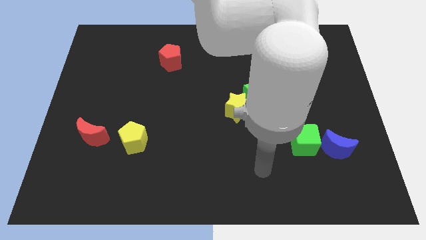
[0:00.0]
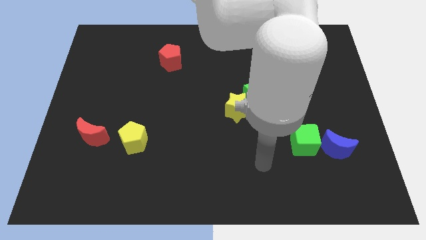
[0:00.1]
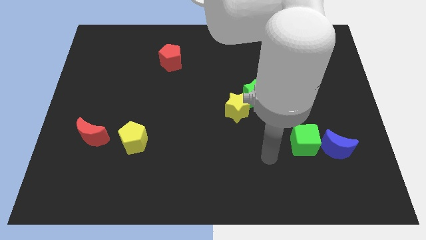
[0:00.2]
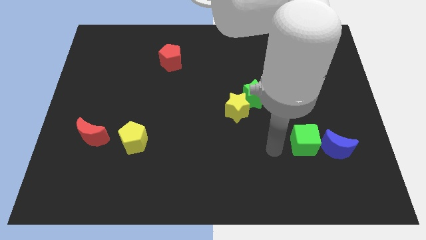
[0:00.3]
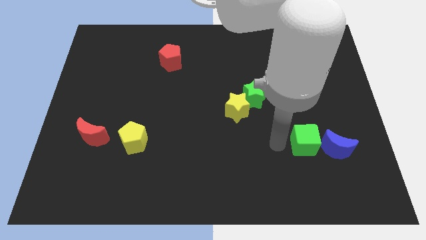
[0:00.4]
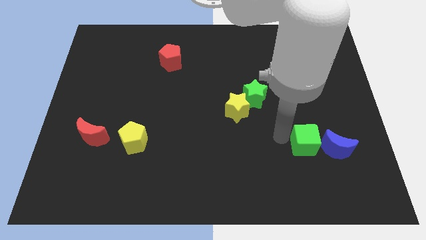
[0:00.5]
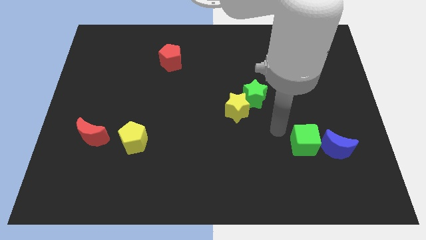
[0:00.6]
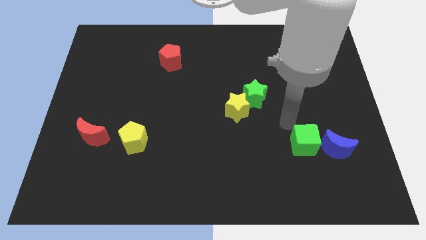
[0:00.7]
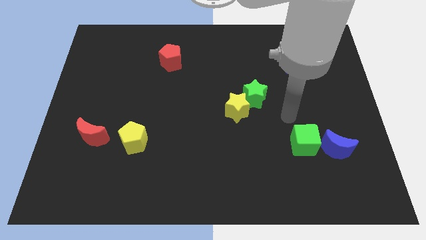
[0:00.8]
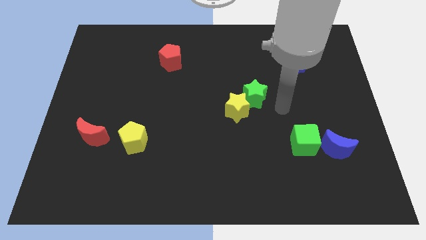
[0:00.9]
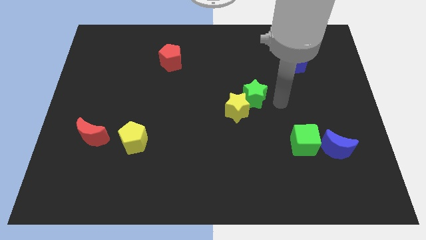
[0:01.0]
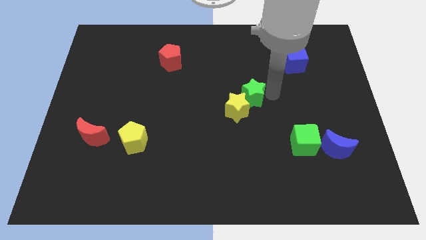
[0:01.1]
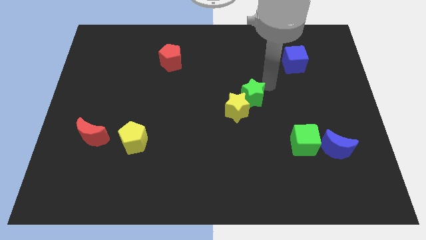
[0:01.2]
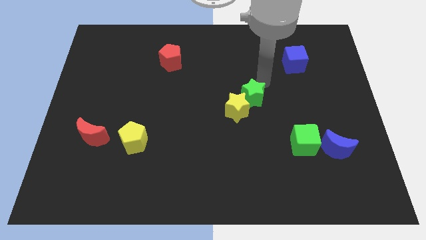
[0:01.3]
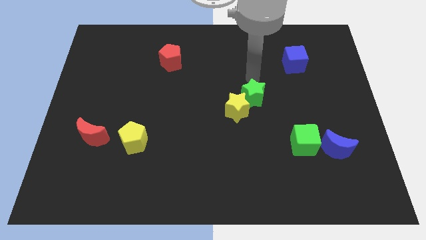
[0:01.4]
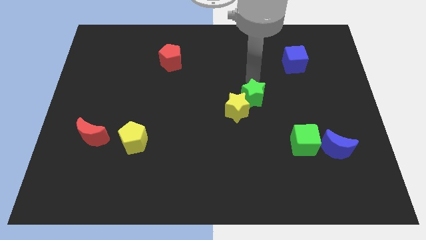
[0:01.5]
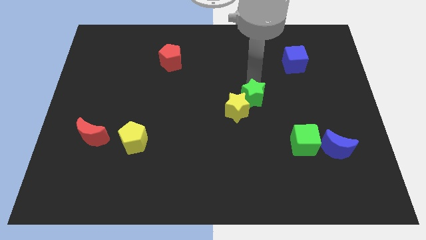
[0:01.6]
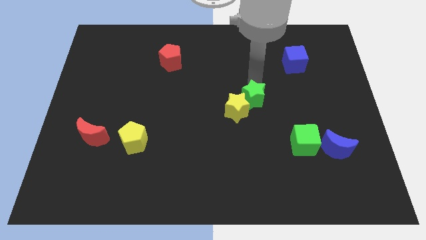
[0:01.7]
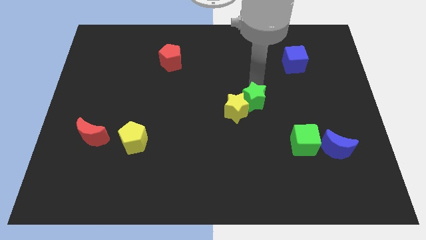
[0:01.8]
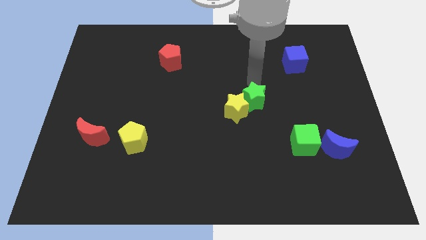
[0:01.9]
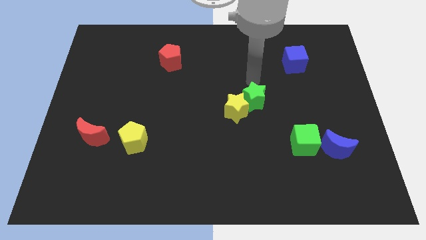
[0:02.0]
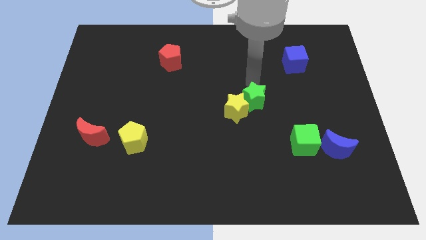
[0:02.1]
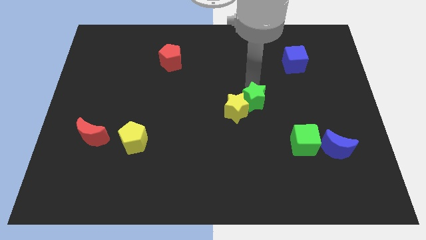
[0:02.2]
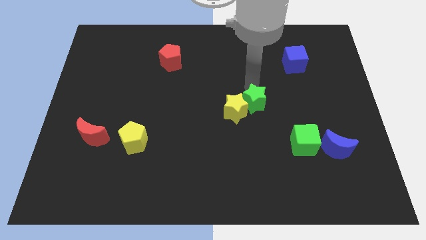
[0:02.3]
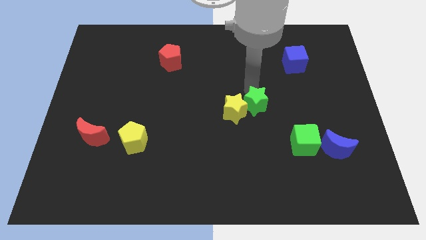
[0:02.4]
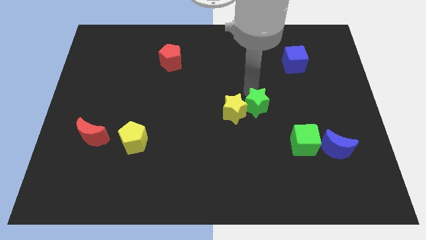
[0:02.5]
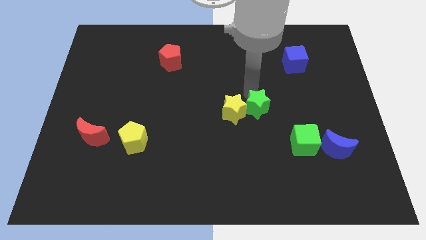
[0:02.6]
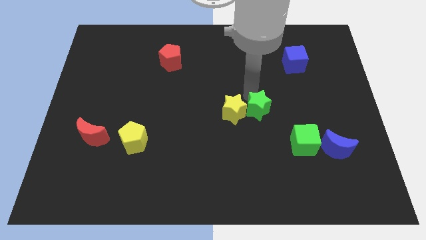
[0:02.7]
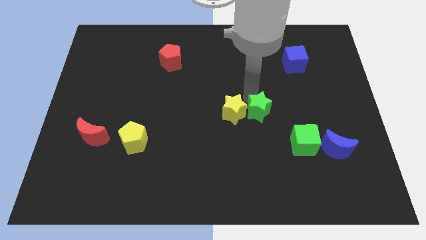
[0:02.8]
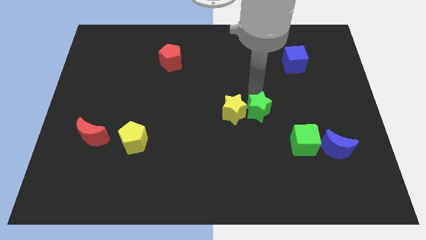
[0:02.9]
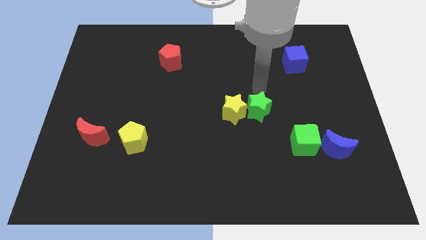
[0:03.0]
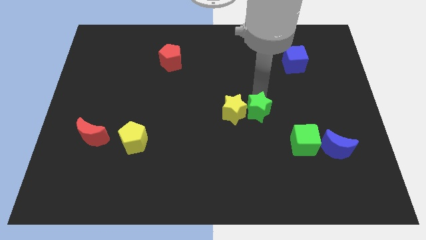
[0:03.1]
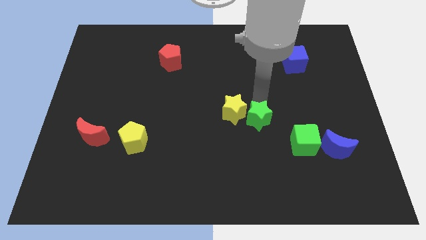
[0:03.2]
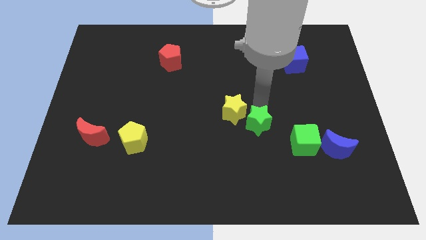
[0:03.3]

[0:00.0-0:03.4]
slide the green star a bit down

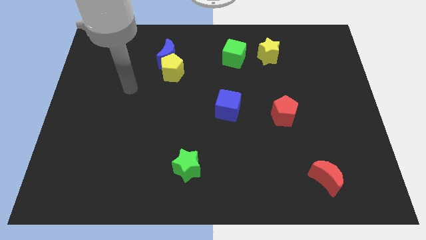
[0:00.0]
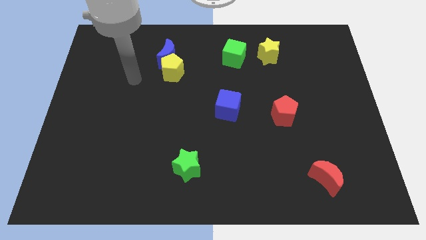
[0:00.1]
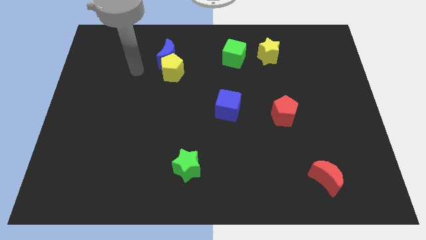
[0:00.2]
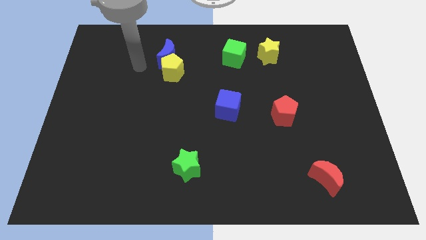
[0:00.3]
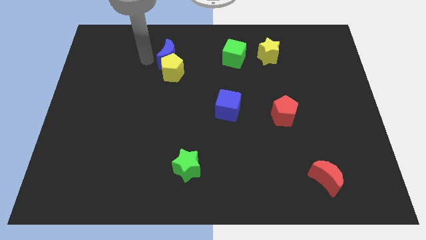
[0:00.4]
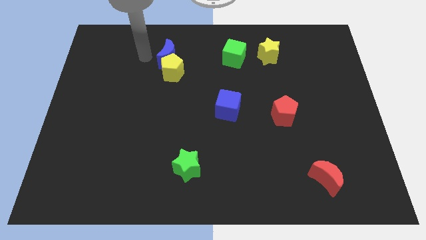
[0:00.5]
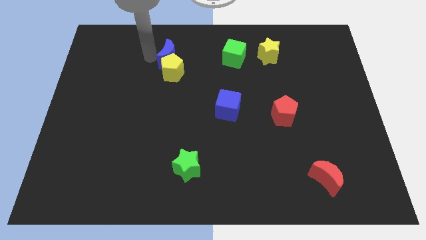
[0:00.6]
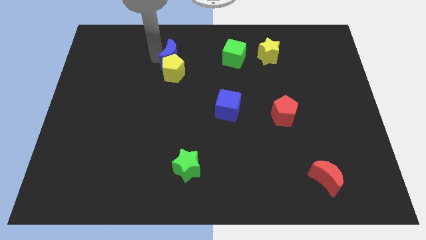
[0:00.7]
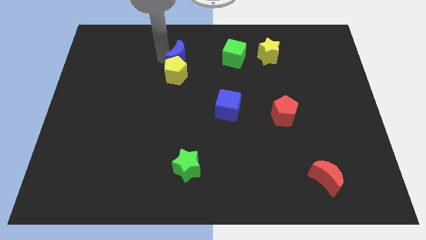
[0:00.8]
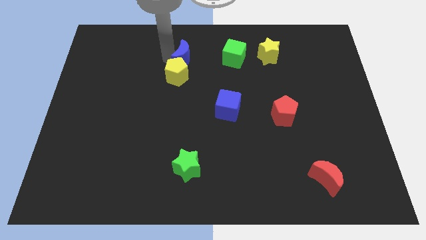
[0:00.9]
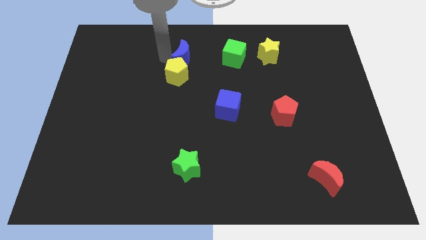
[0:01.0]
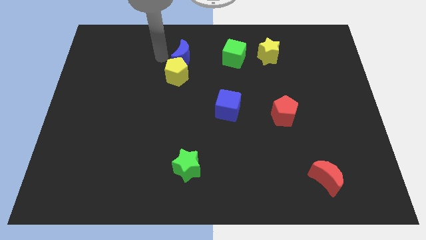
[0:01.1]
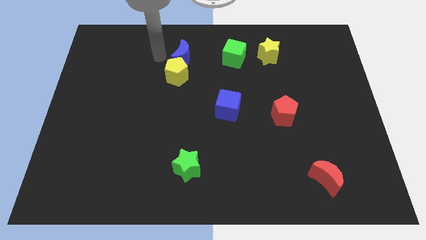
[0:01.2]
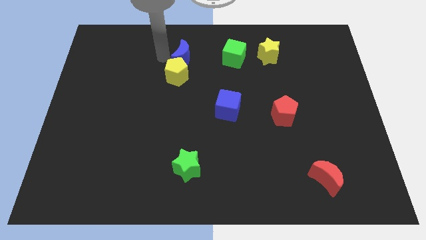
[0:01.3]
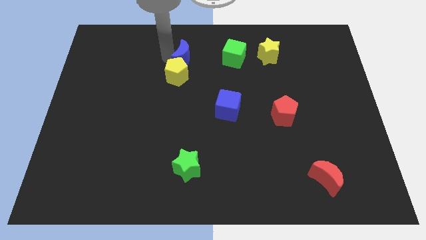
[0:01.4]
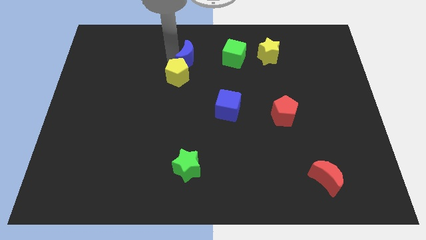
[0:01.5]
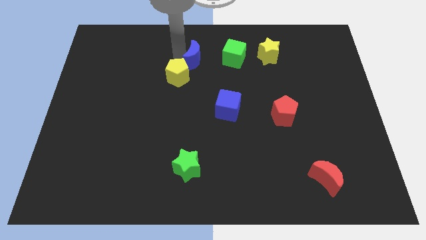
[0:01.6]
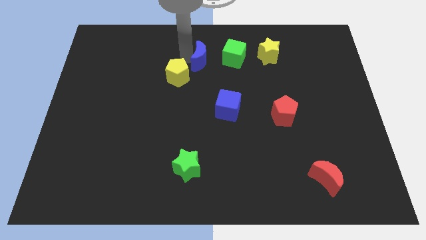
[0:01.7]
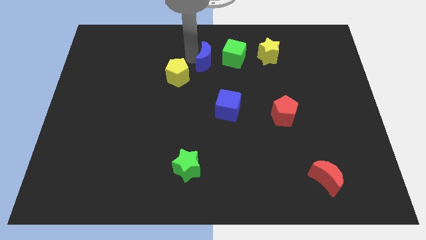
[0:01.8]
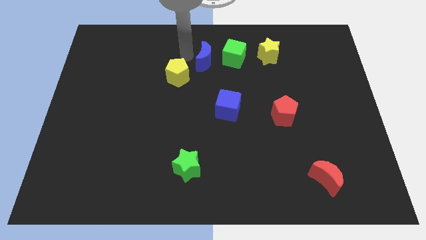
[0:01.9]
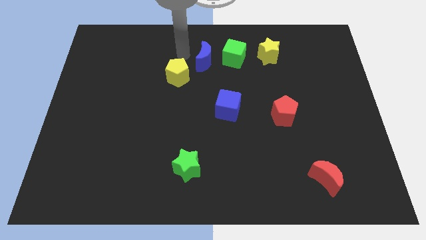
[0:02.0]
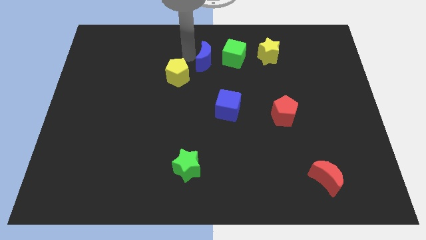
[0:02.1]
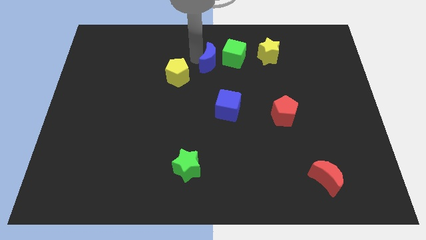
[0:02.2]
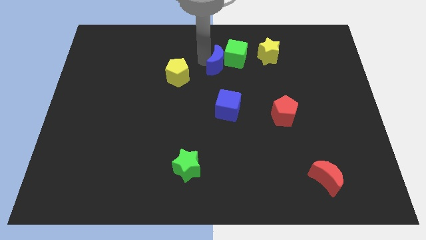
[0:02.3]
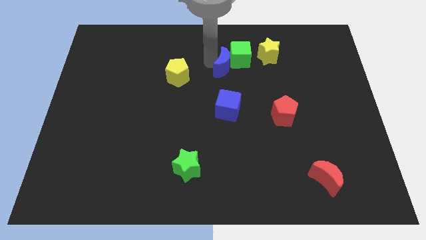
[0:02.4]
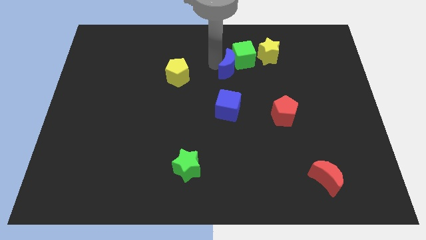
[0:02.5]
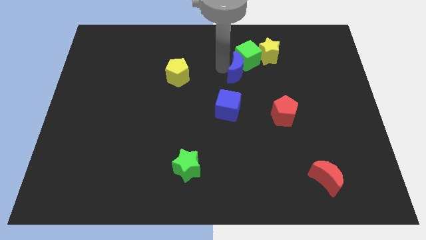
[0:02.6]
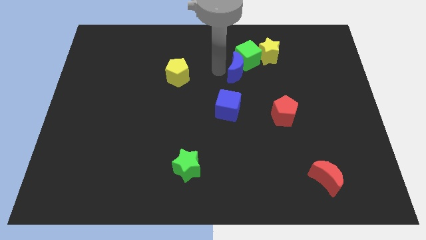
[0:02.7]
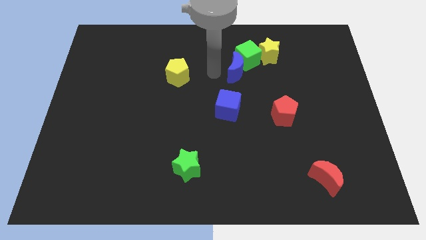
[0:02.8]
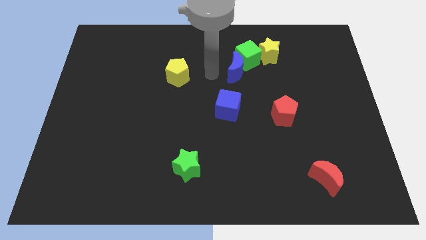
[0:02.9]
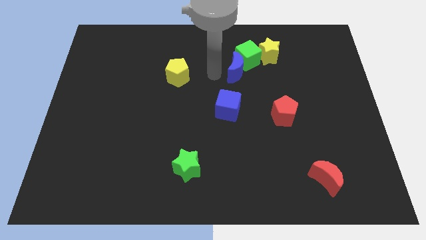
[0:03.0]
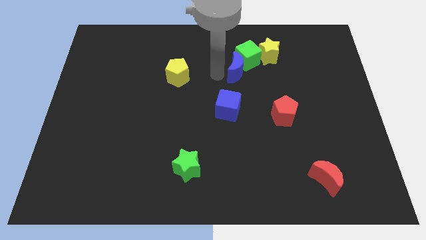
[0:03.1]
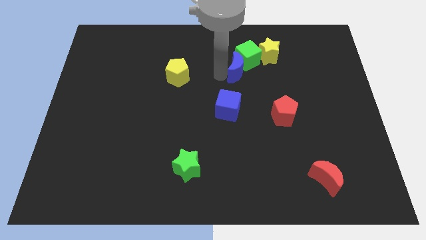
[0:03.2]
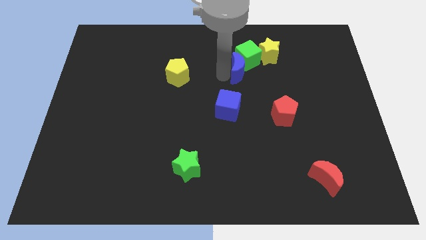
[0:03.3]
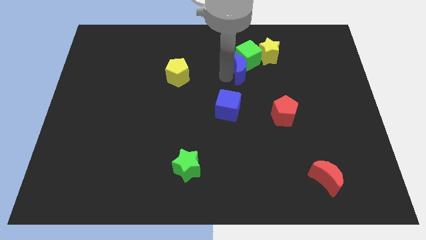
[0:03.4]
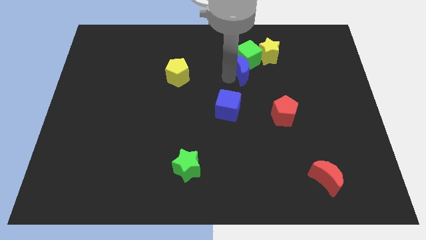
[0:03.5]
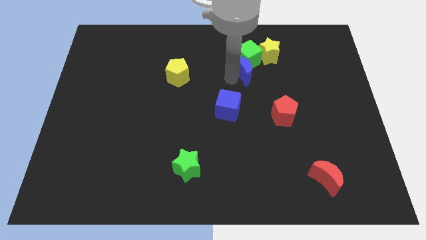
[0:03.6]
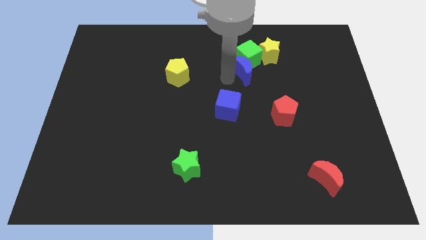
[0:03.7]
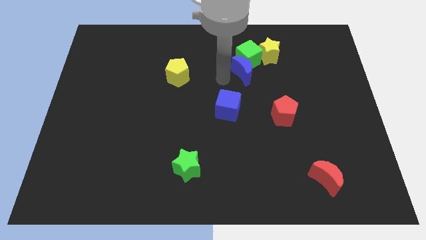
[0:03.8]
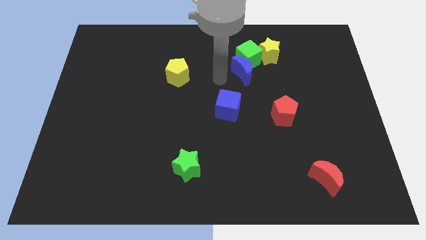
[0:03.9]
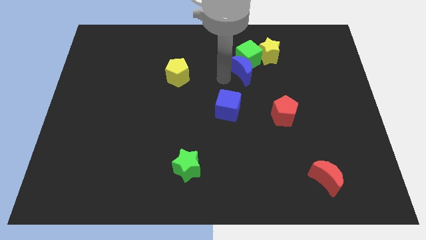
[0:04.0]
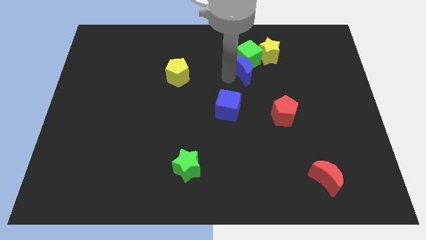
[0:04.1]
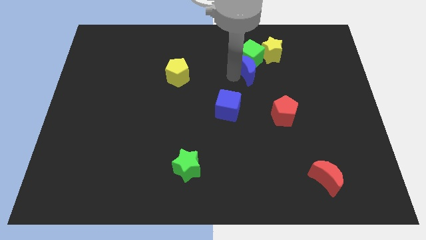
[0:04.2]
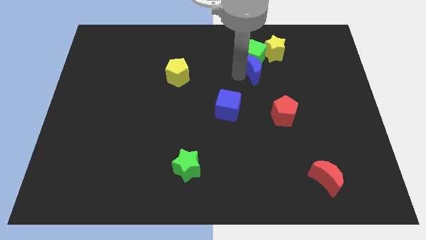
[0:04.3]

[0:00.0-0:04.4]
move the blue moon right

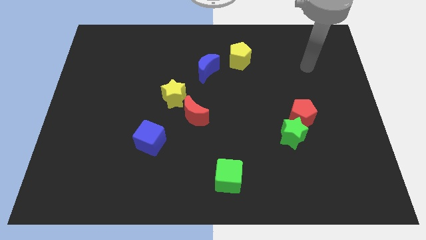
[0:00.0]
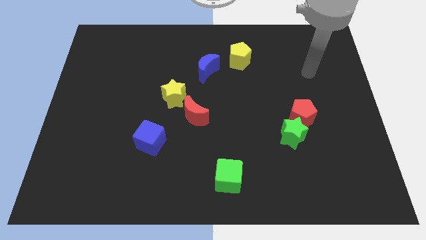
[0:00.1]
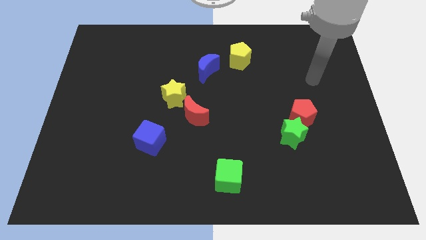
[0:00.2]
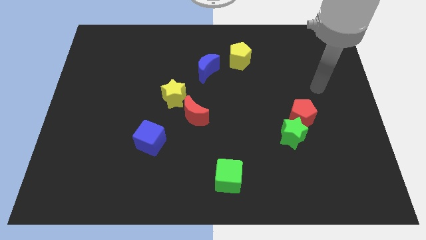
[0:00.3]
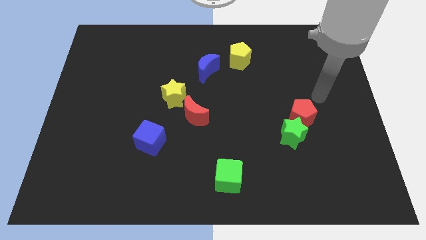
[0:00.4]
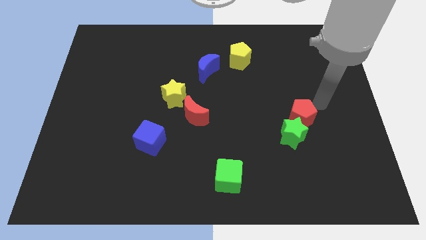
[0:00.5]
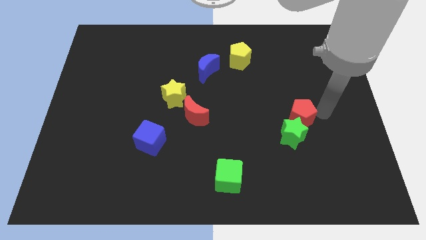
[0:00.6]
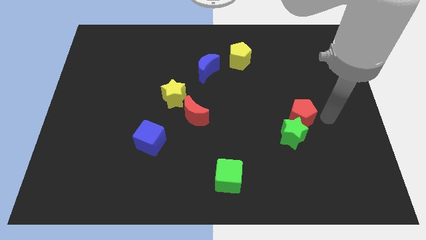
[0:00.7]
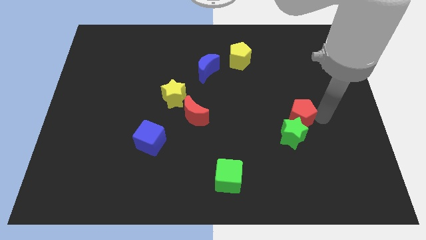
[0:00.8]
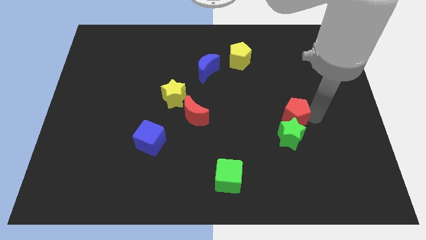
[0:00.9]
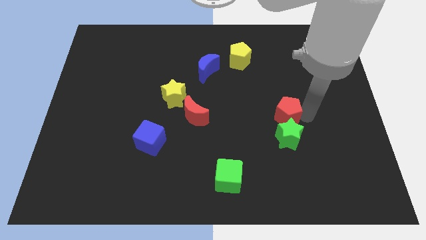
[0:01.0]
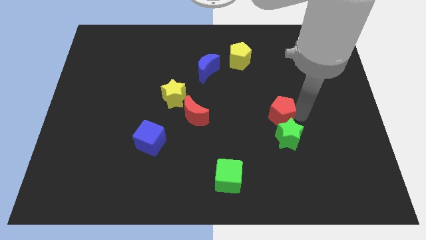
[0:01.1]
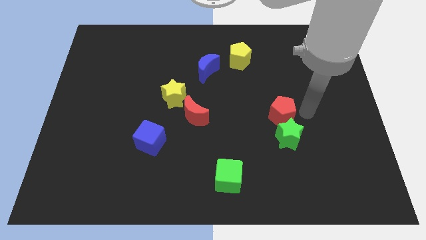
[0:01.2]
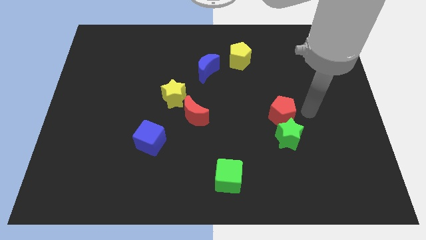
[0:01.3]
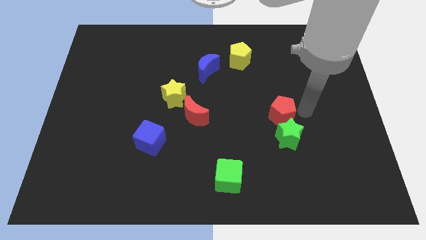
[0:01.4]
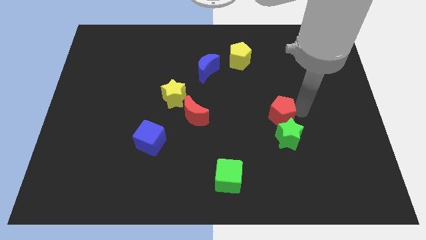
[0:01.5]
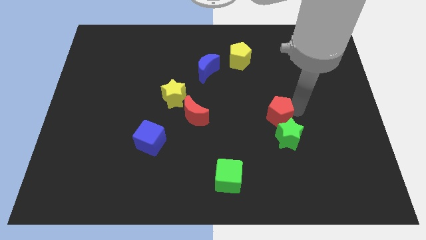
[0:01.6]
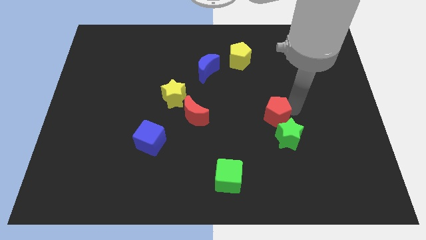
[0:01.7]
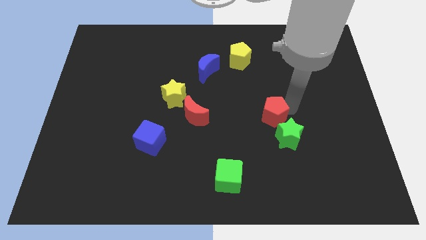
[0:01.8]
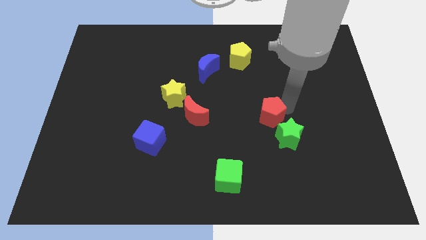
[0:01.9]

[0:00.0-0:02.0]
slide the red pentagon to the left a little
